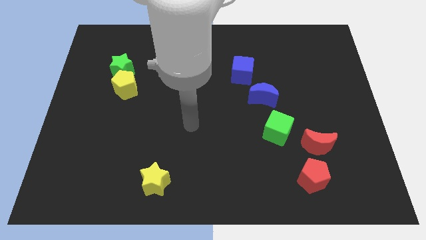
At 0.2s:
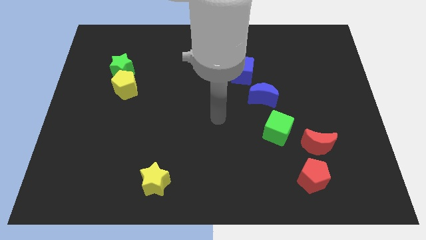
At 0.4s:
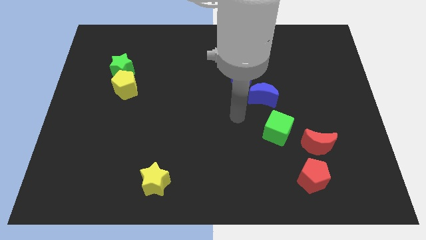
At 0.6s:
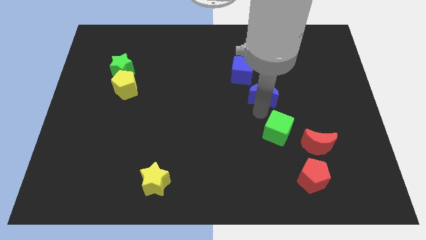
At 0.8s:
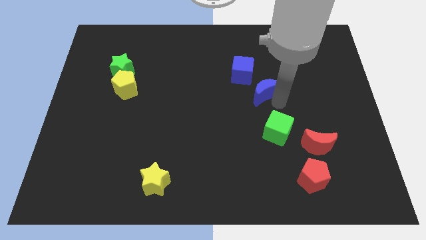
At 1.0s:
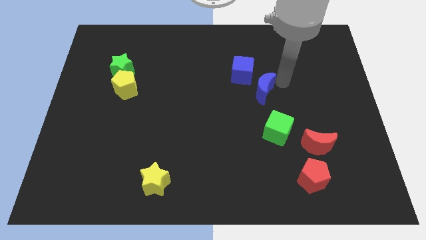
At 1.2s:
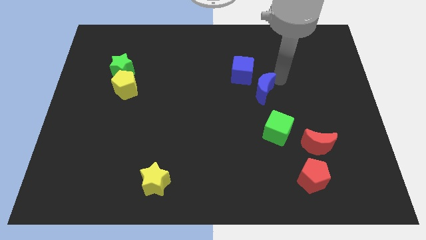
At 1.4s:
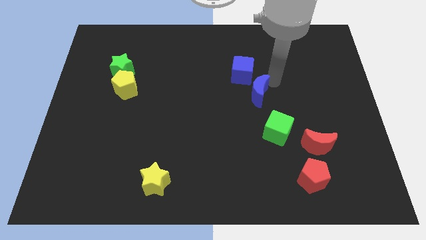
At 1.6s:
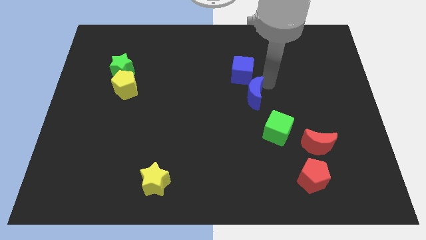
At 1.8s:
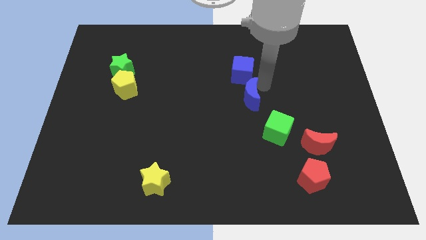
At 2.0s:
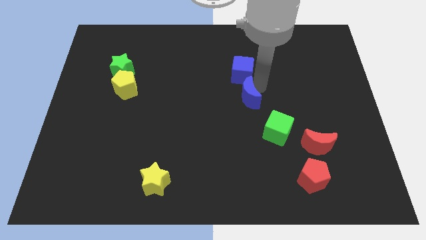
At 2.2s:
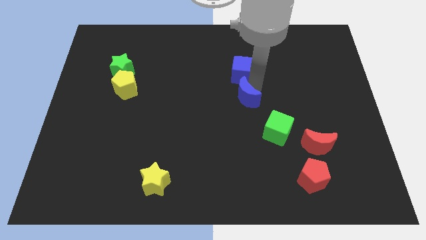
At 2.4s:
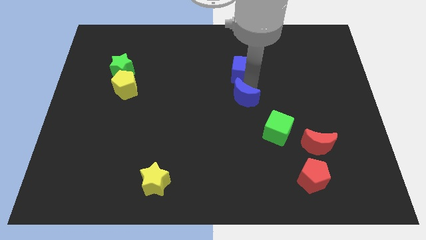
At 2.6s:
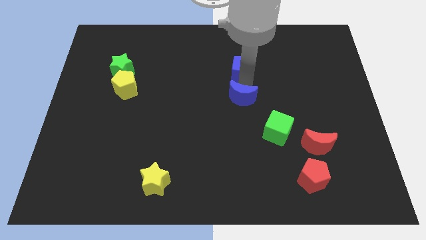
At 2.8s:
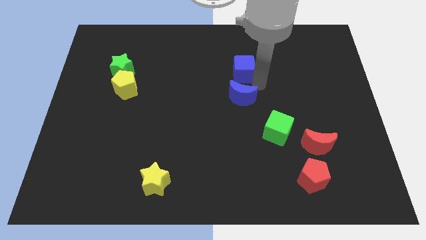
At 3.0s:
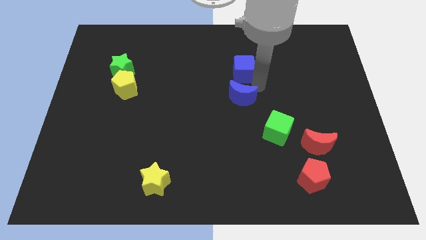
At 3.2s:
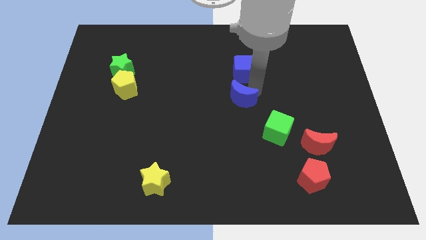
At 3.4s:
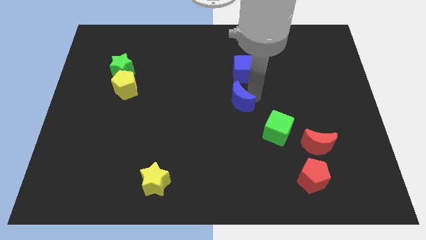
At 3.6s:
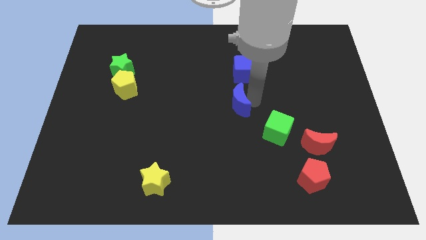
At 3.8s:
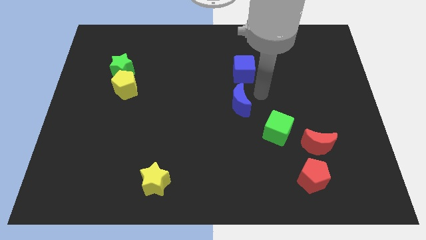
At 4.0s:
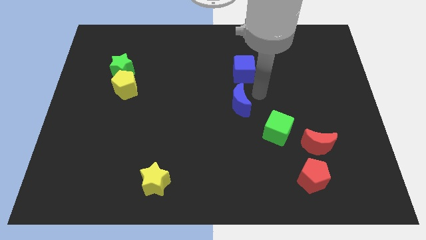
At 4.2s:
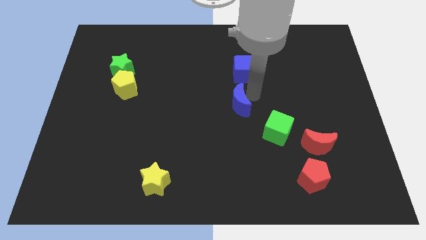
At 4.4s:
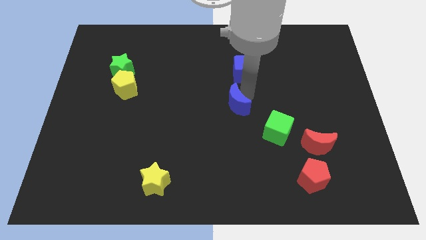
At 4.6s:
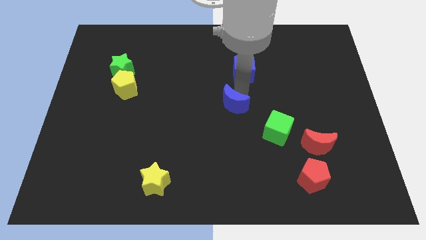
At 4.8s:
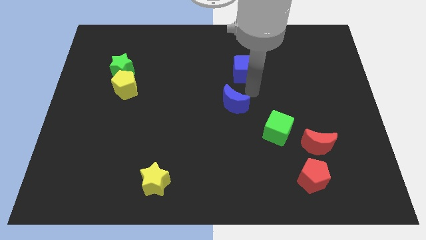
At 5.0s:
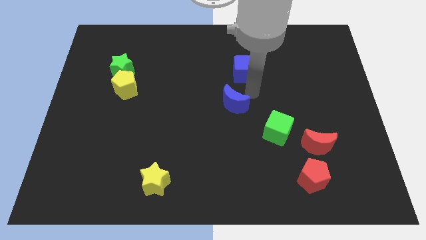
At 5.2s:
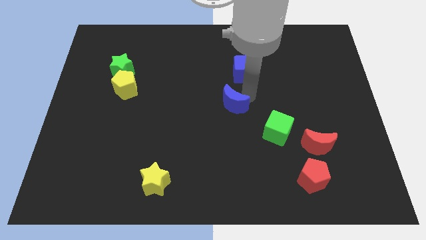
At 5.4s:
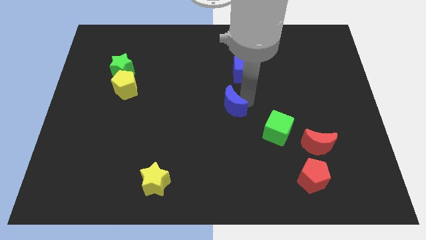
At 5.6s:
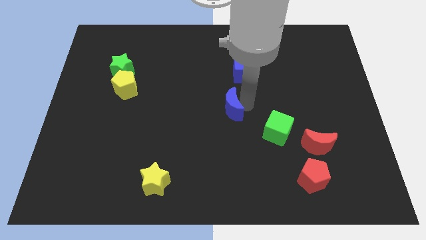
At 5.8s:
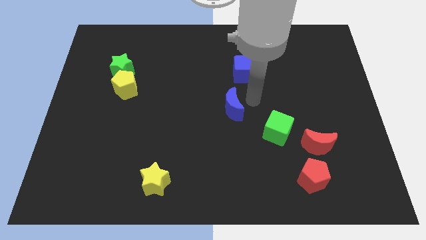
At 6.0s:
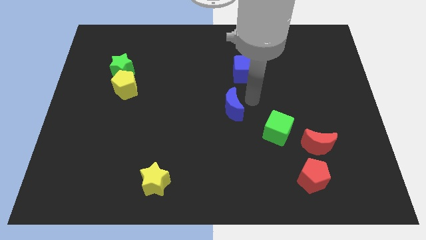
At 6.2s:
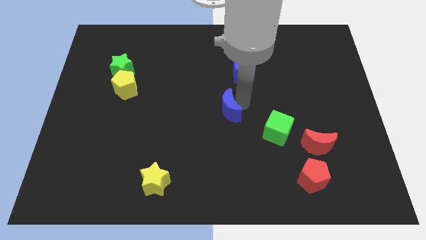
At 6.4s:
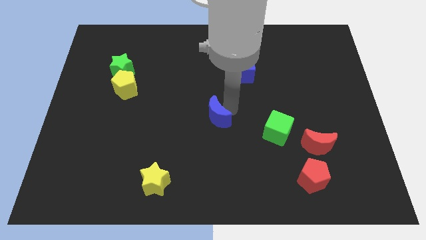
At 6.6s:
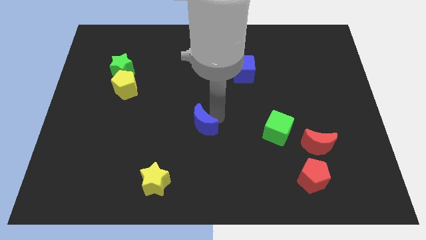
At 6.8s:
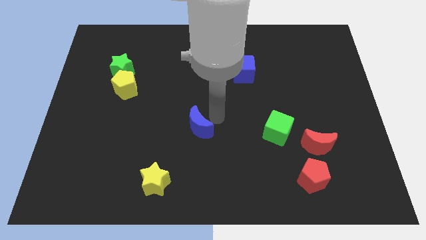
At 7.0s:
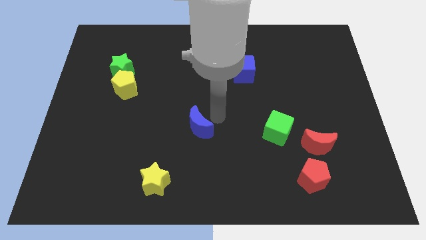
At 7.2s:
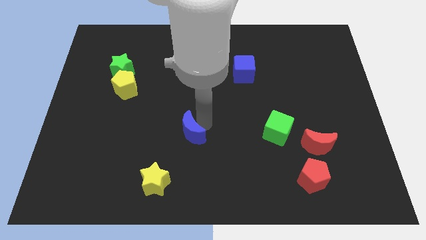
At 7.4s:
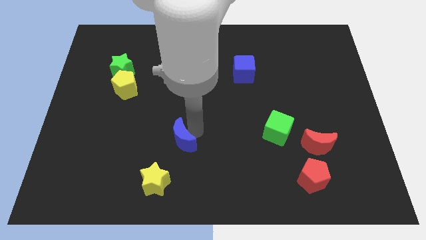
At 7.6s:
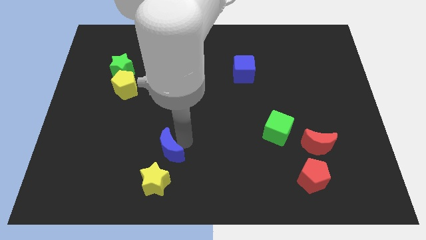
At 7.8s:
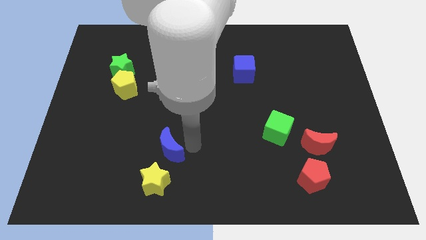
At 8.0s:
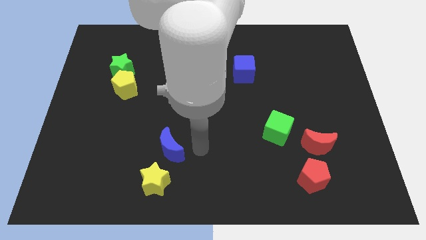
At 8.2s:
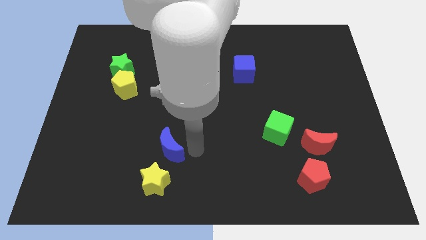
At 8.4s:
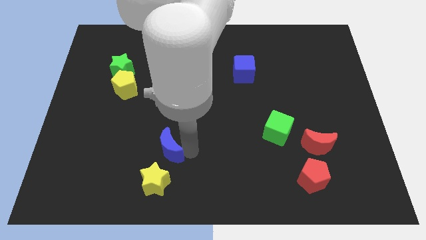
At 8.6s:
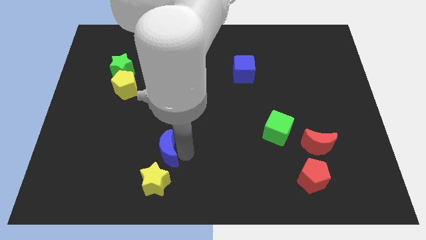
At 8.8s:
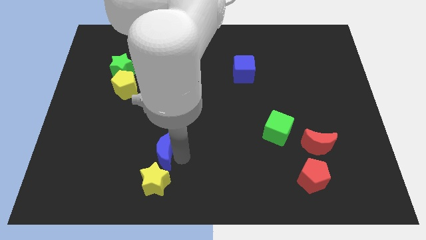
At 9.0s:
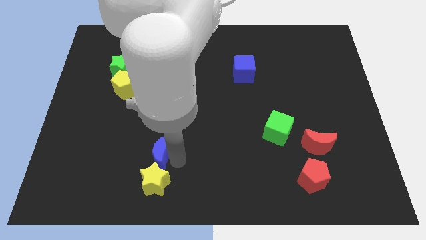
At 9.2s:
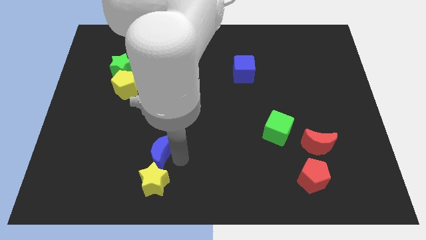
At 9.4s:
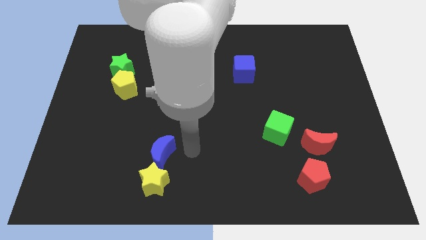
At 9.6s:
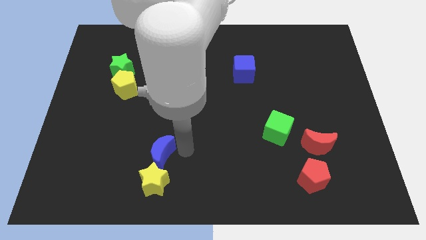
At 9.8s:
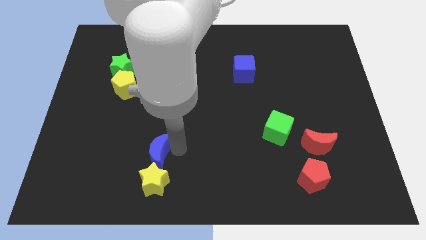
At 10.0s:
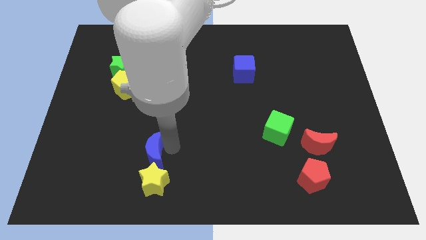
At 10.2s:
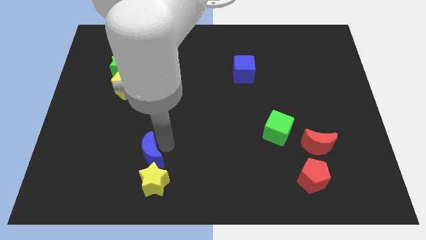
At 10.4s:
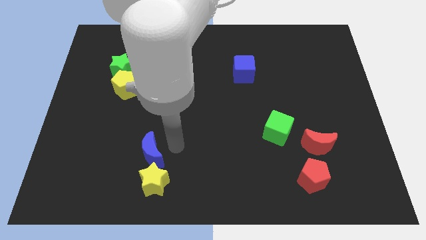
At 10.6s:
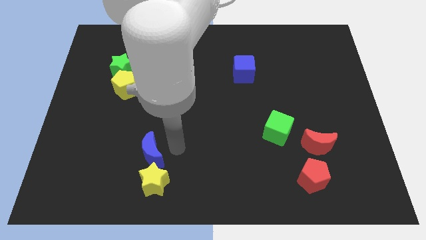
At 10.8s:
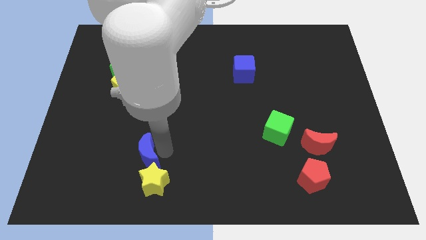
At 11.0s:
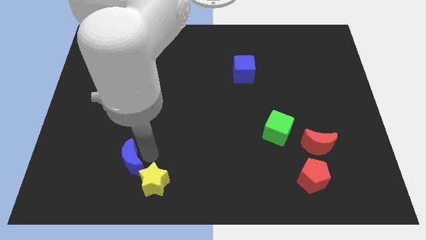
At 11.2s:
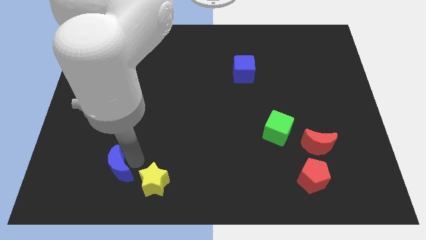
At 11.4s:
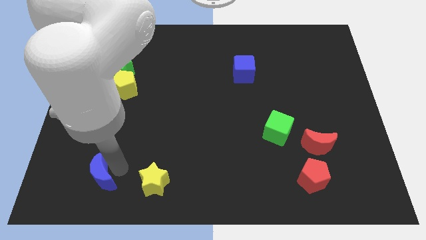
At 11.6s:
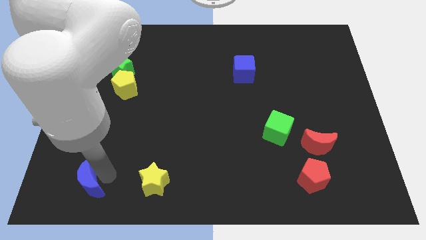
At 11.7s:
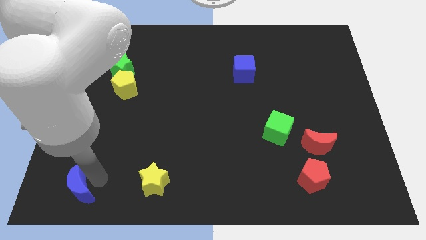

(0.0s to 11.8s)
slide the blue moon to the bottom left of the board
